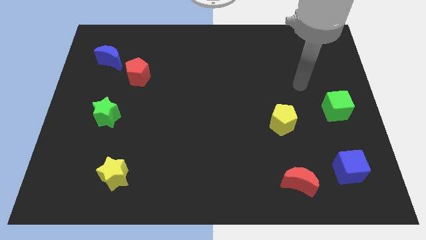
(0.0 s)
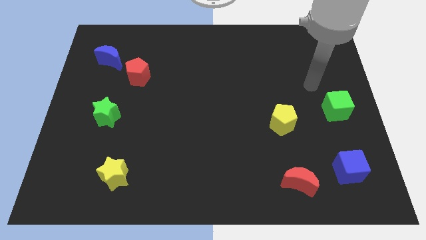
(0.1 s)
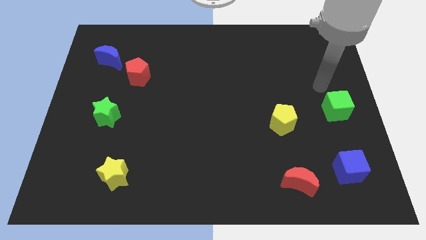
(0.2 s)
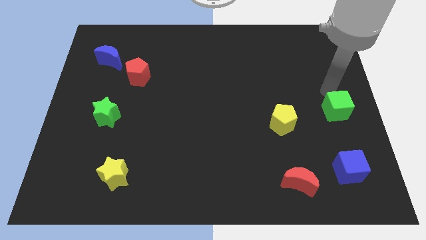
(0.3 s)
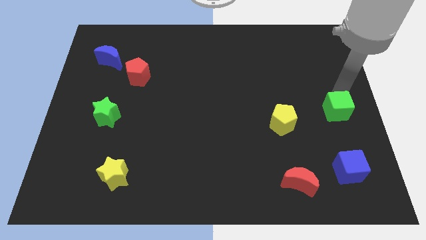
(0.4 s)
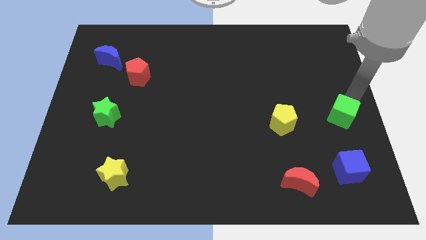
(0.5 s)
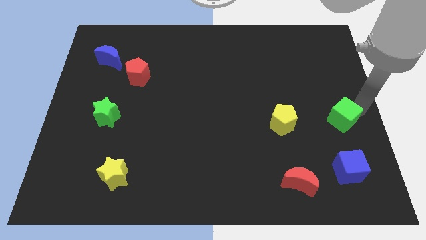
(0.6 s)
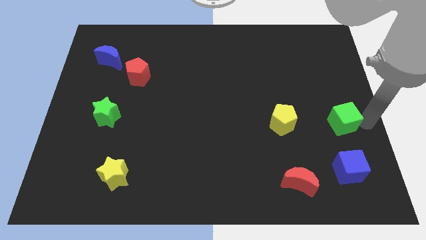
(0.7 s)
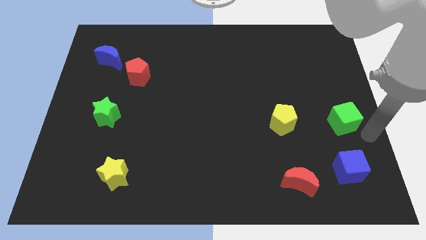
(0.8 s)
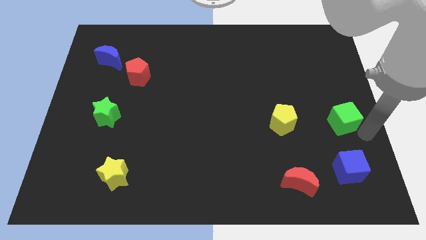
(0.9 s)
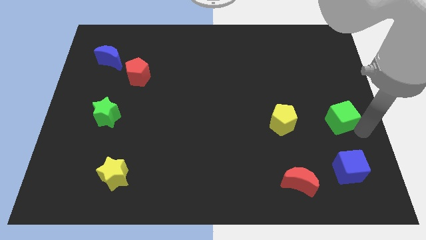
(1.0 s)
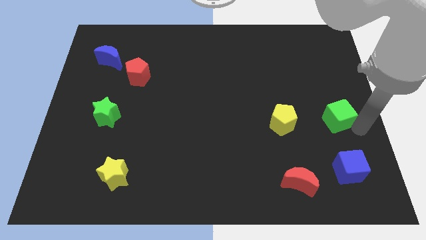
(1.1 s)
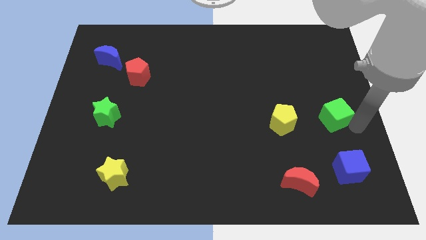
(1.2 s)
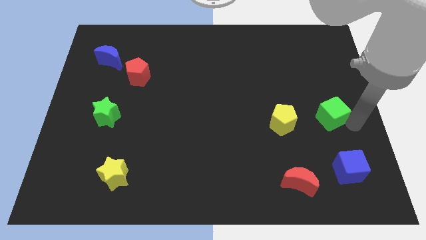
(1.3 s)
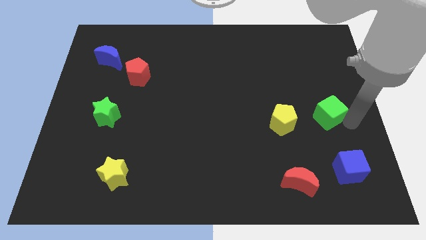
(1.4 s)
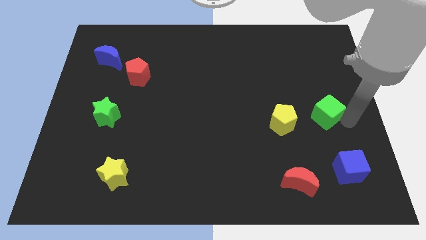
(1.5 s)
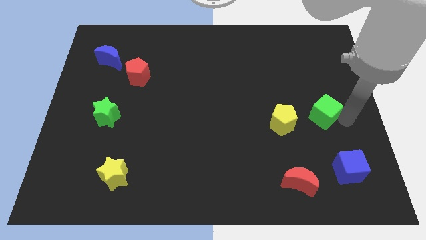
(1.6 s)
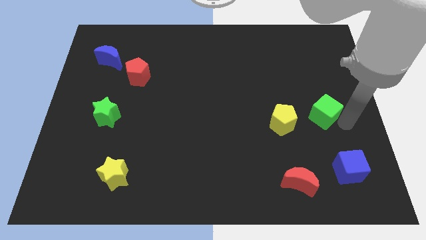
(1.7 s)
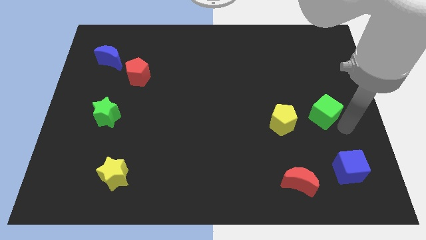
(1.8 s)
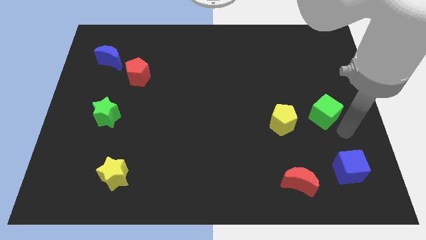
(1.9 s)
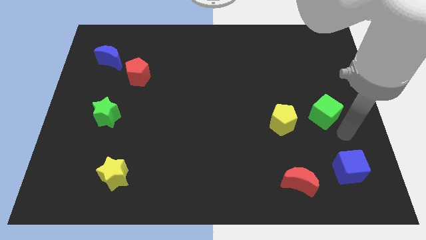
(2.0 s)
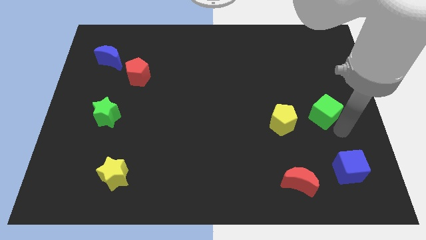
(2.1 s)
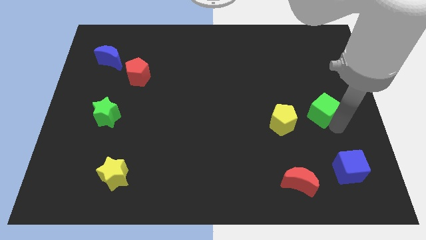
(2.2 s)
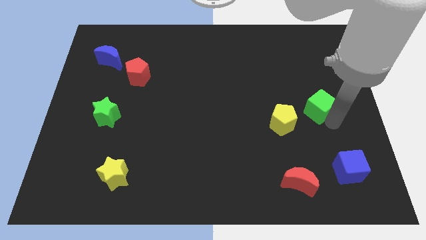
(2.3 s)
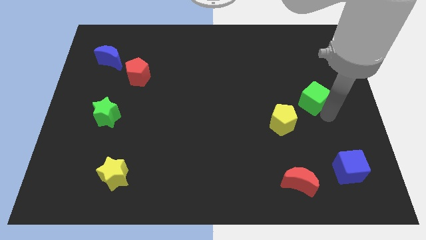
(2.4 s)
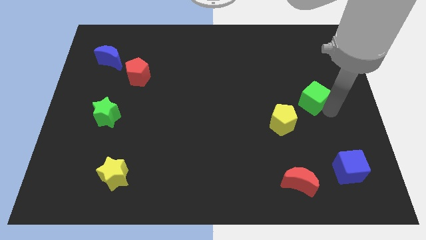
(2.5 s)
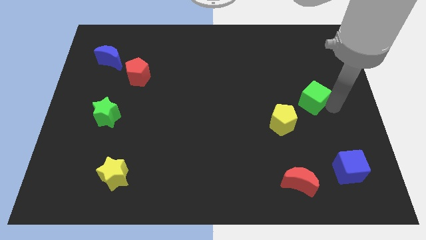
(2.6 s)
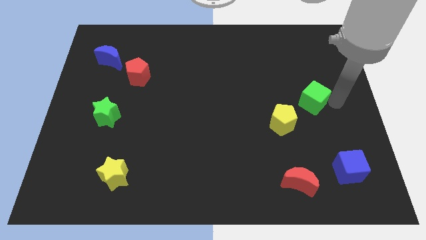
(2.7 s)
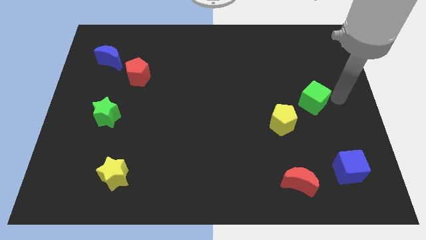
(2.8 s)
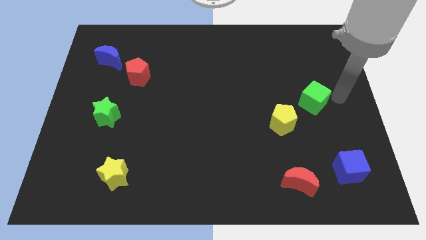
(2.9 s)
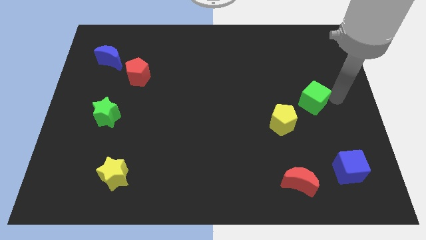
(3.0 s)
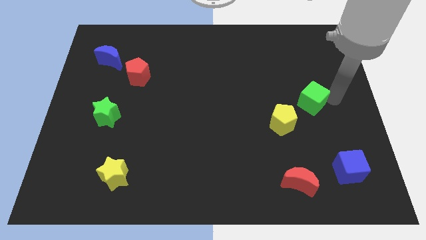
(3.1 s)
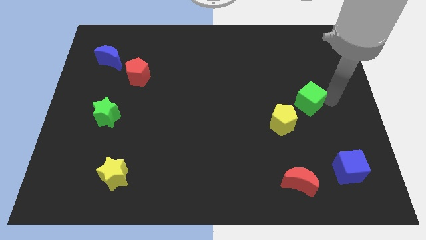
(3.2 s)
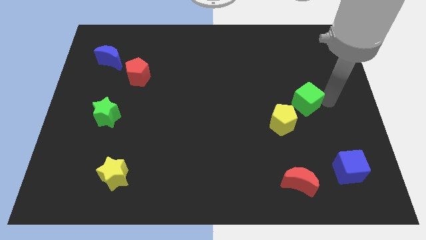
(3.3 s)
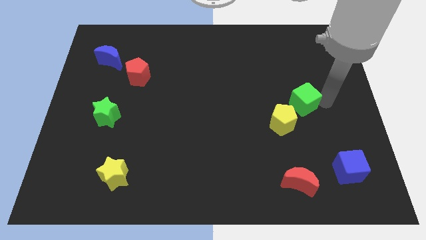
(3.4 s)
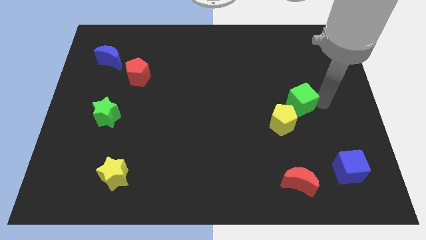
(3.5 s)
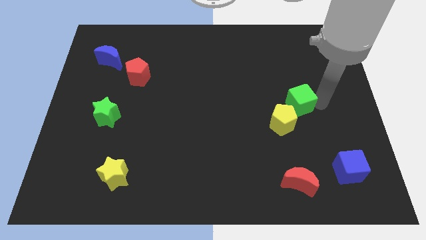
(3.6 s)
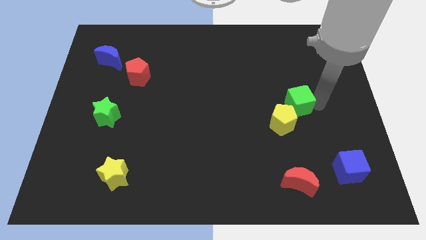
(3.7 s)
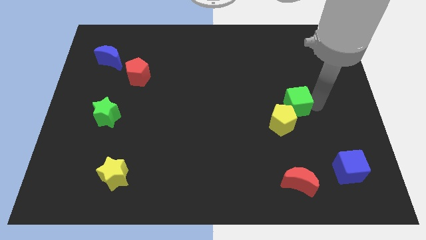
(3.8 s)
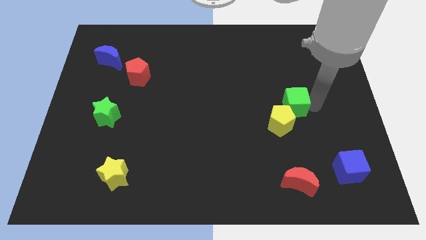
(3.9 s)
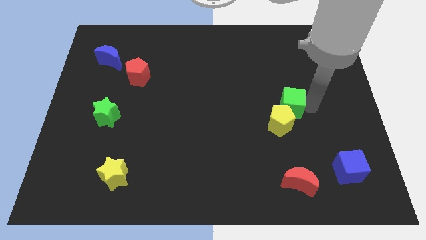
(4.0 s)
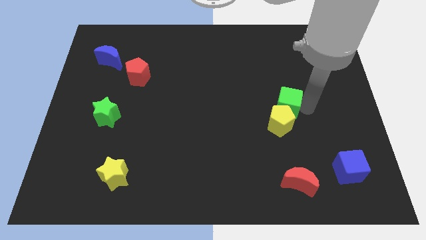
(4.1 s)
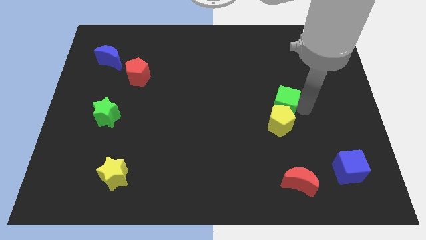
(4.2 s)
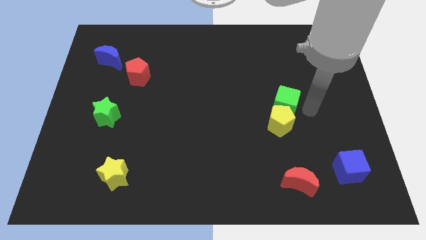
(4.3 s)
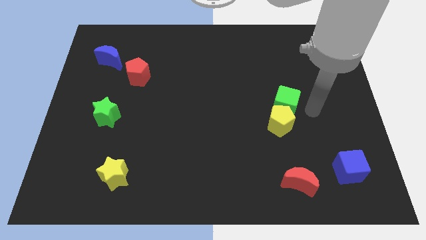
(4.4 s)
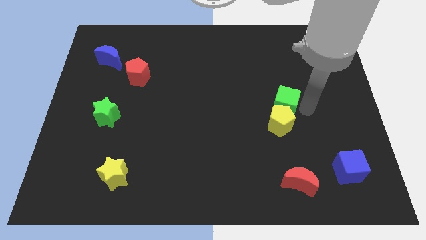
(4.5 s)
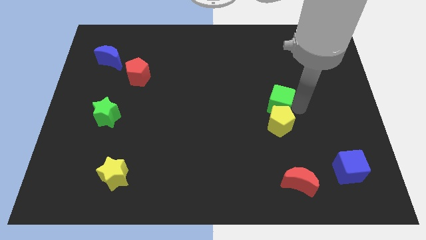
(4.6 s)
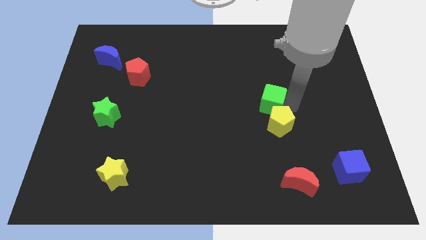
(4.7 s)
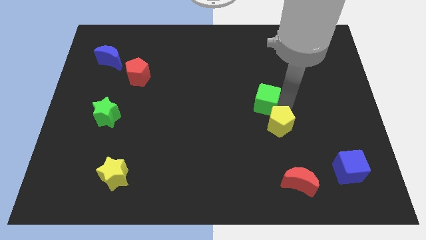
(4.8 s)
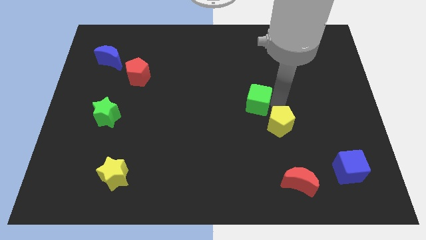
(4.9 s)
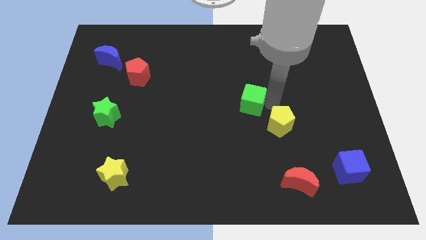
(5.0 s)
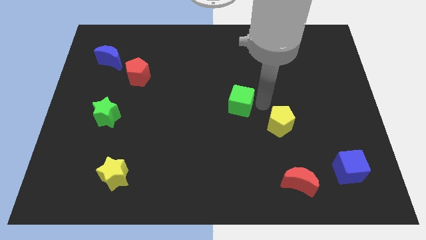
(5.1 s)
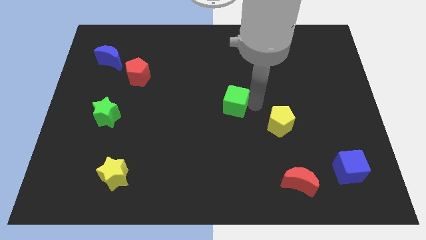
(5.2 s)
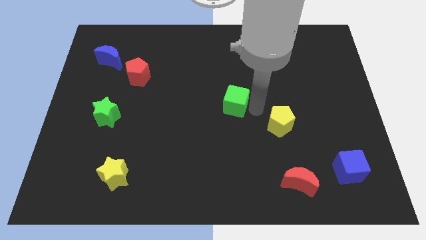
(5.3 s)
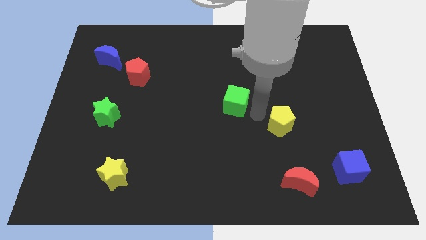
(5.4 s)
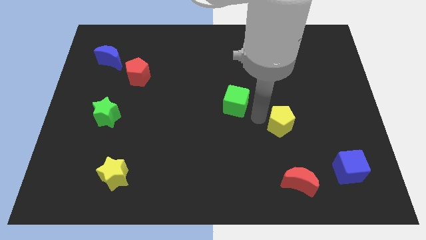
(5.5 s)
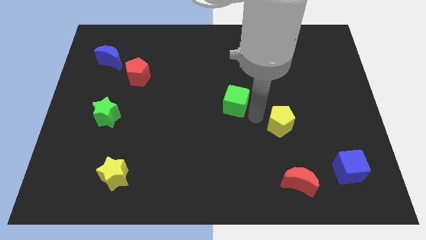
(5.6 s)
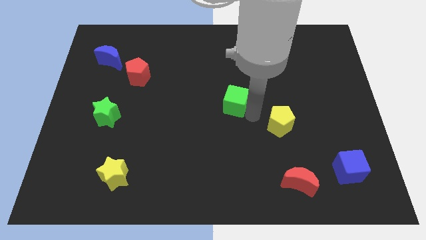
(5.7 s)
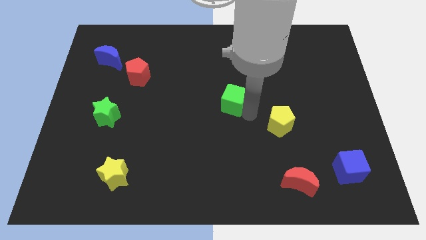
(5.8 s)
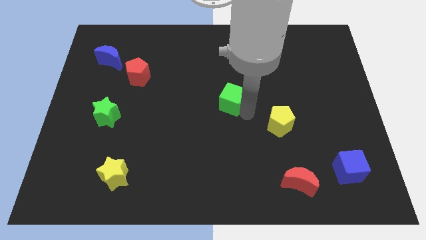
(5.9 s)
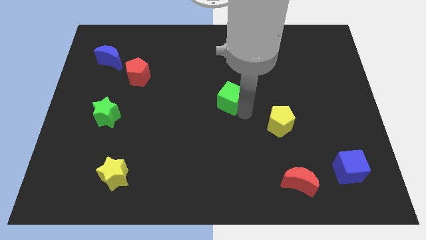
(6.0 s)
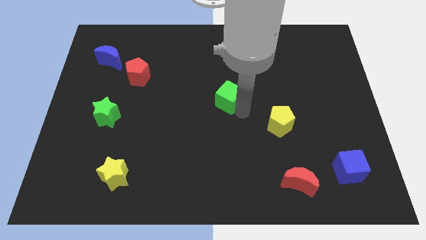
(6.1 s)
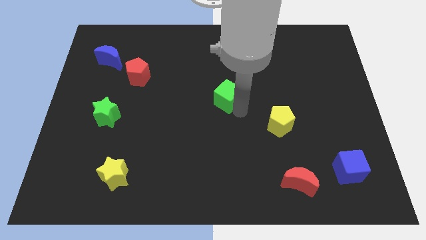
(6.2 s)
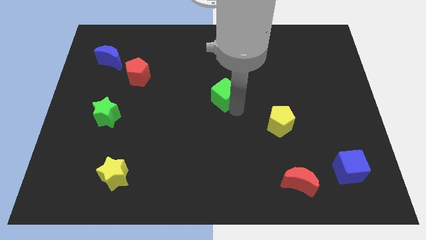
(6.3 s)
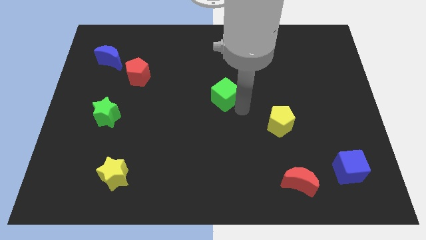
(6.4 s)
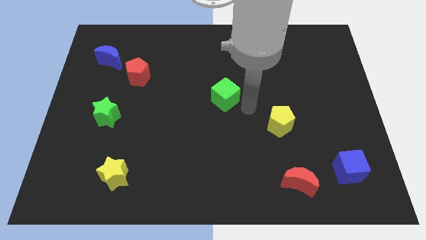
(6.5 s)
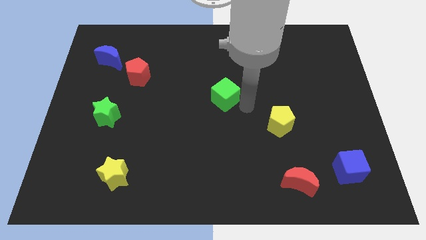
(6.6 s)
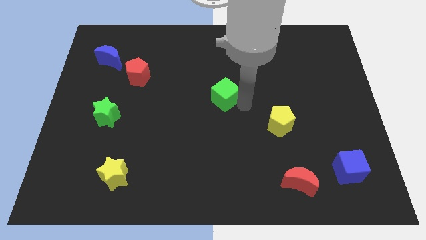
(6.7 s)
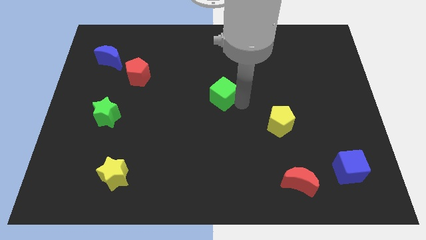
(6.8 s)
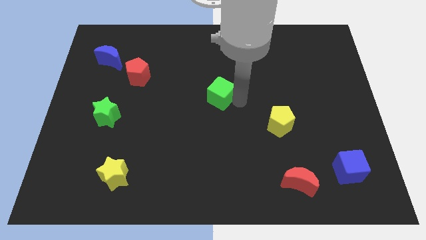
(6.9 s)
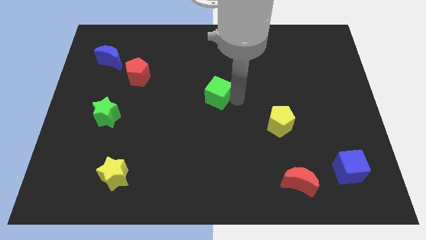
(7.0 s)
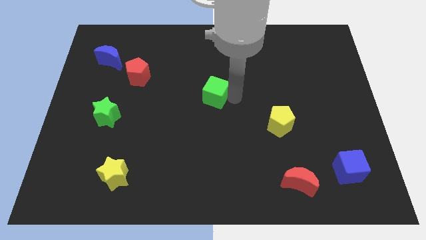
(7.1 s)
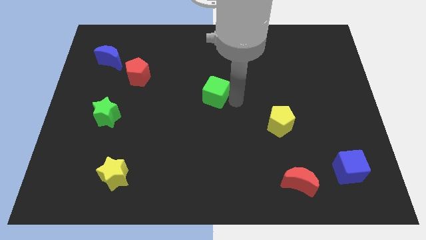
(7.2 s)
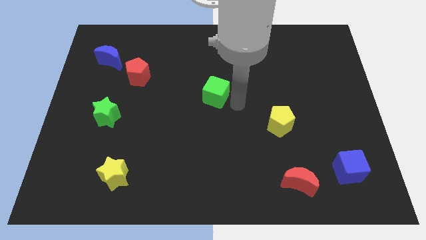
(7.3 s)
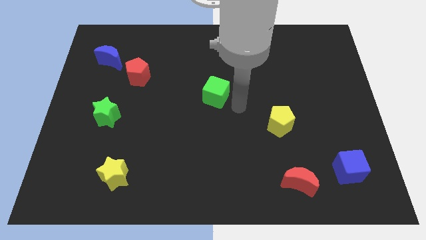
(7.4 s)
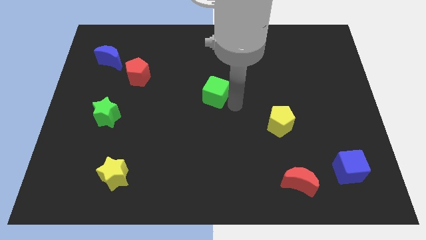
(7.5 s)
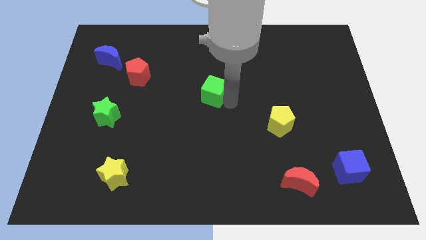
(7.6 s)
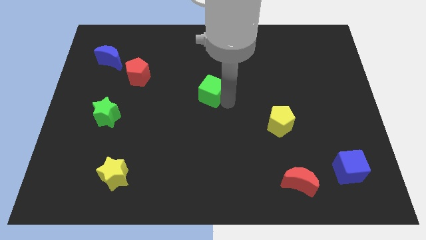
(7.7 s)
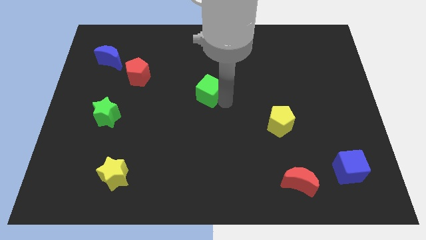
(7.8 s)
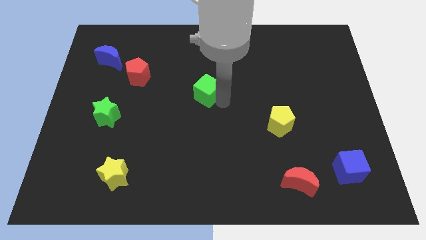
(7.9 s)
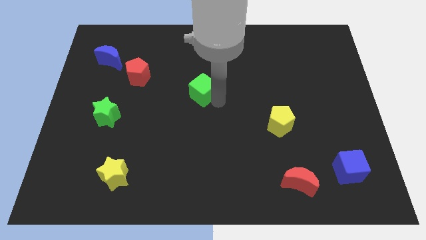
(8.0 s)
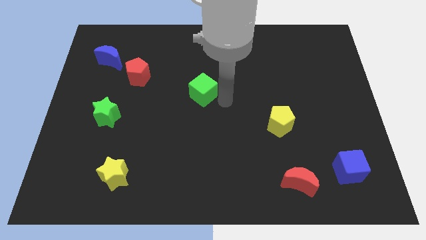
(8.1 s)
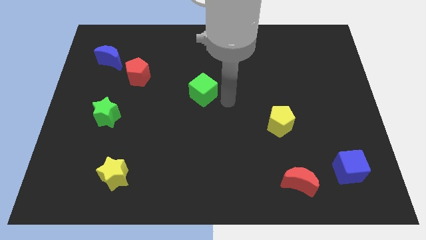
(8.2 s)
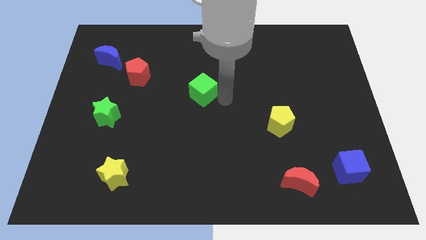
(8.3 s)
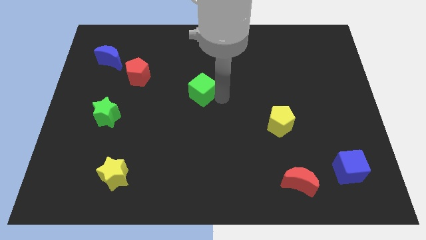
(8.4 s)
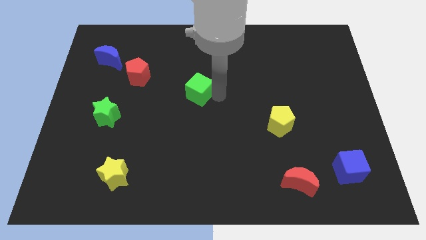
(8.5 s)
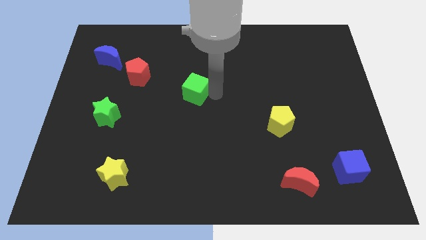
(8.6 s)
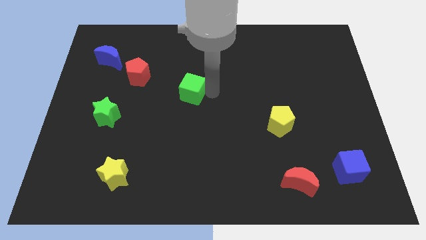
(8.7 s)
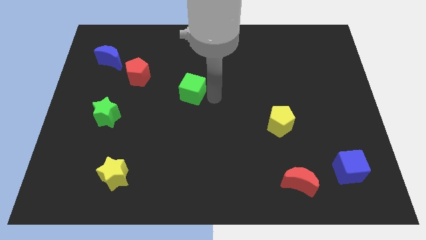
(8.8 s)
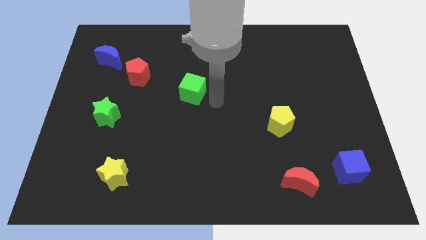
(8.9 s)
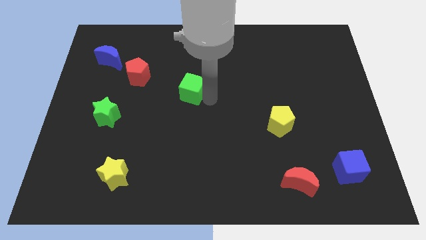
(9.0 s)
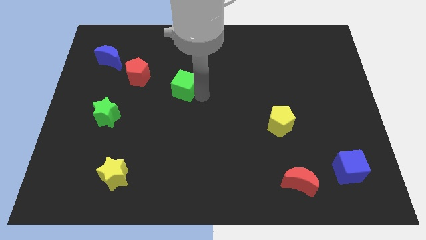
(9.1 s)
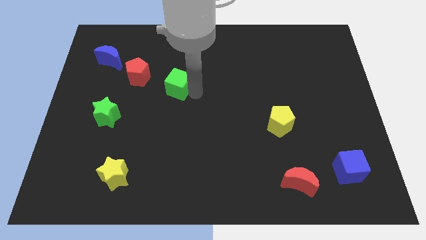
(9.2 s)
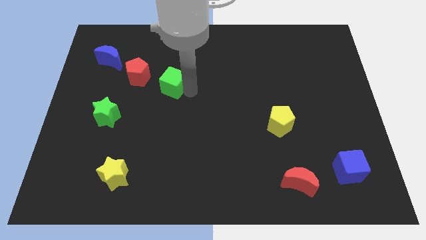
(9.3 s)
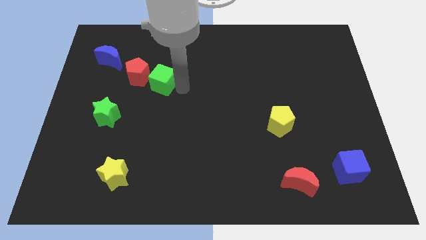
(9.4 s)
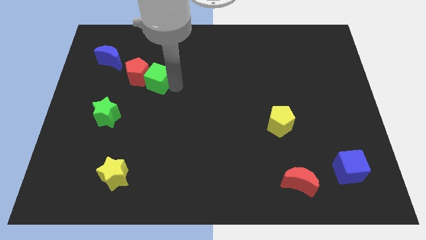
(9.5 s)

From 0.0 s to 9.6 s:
put the green cube towards the red pentagon
